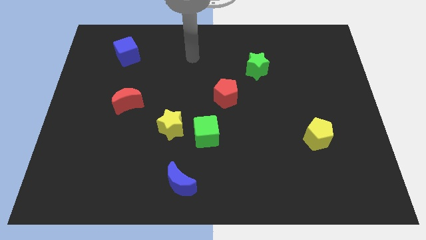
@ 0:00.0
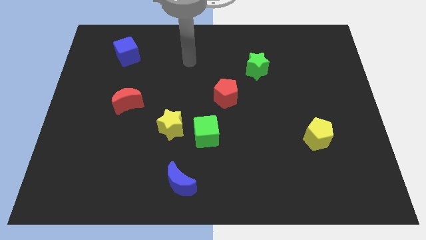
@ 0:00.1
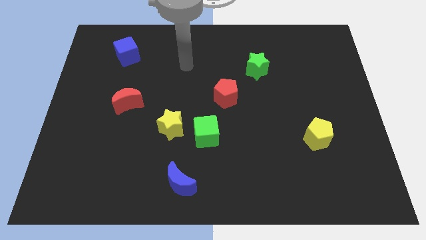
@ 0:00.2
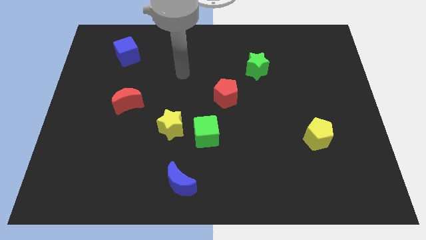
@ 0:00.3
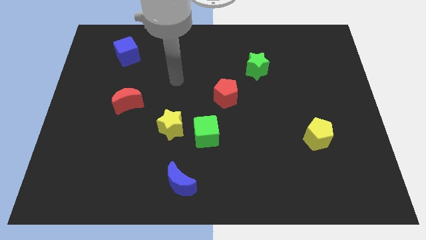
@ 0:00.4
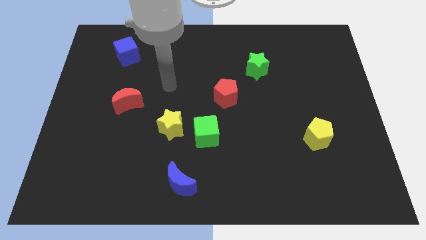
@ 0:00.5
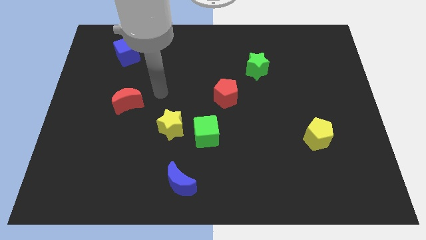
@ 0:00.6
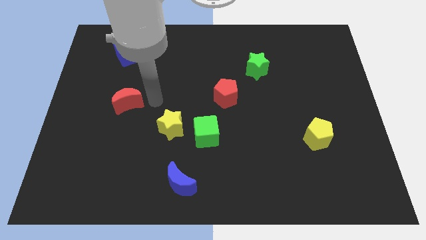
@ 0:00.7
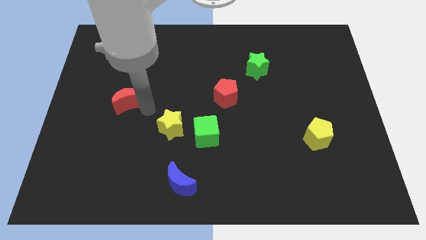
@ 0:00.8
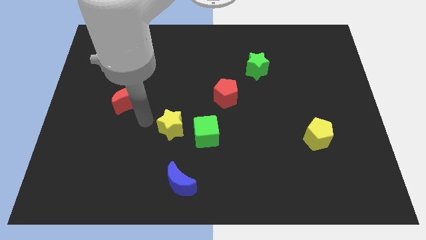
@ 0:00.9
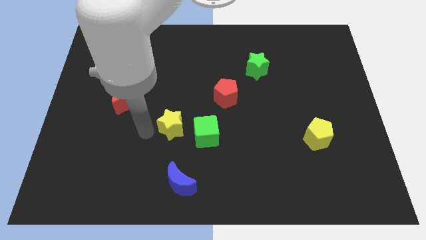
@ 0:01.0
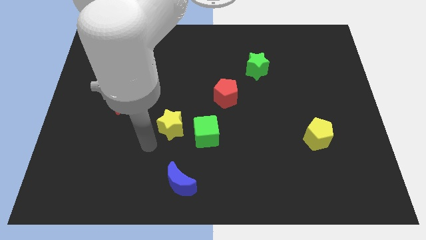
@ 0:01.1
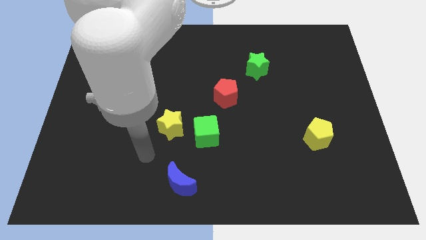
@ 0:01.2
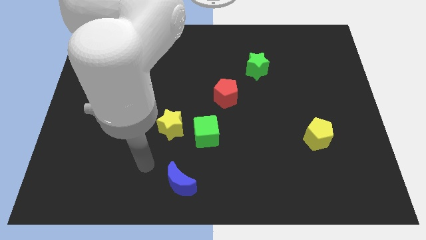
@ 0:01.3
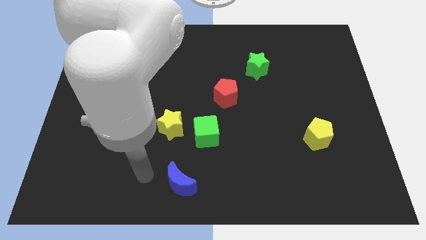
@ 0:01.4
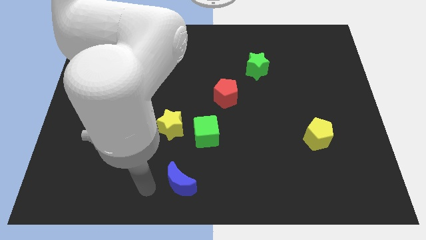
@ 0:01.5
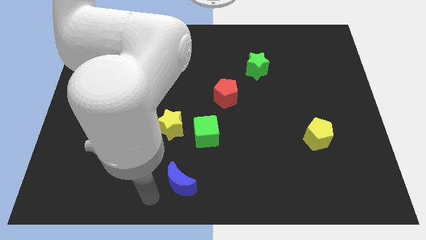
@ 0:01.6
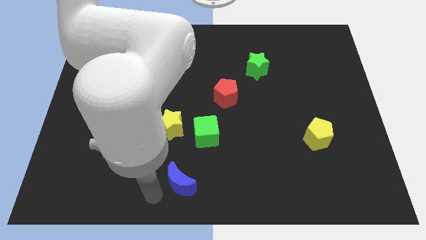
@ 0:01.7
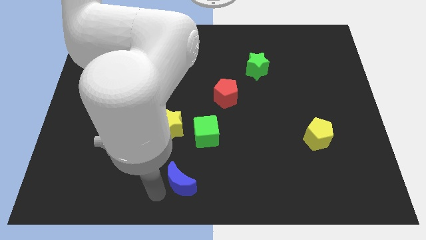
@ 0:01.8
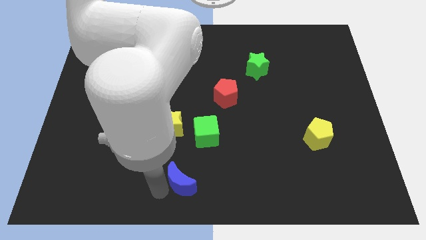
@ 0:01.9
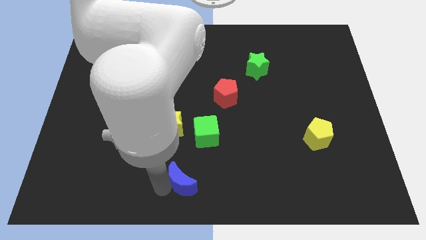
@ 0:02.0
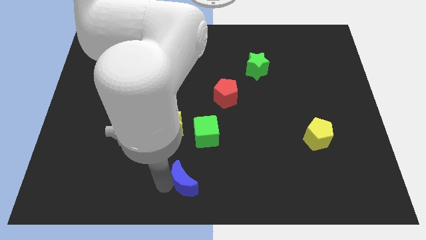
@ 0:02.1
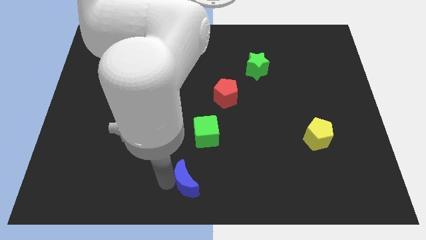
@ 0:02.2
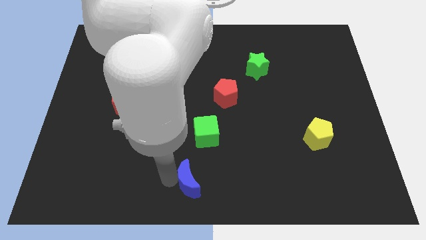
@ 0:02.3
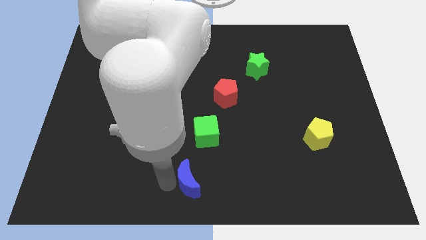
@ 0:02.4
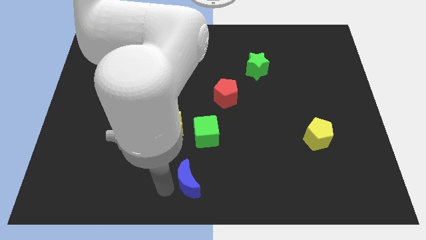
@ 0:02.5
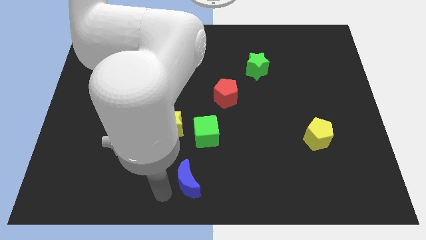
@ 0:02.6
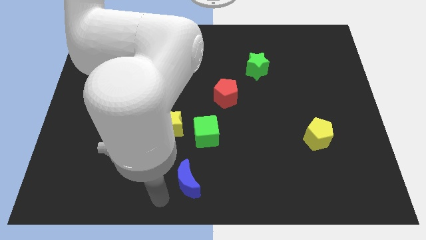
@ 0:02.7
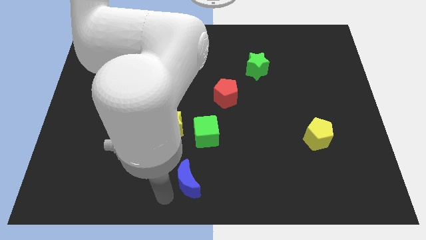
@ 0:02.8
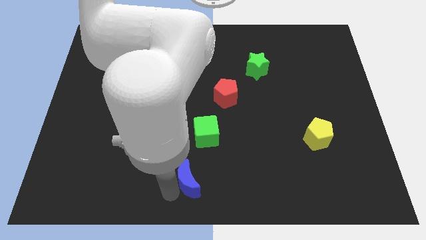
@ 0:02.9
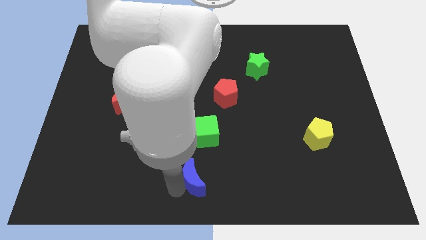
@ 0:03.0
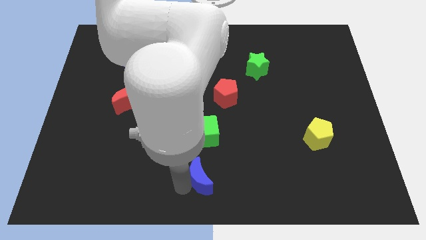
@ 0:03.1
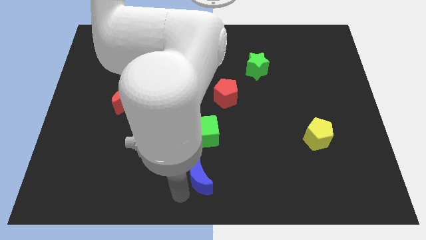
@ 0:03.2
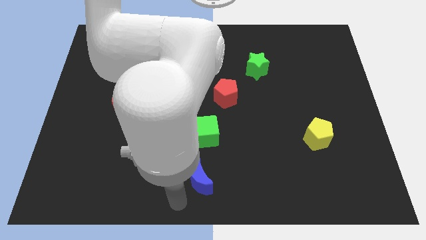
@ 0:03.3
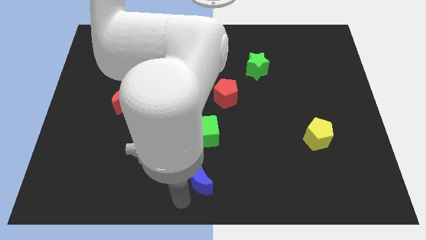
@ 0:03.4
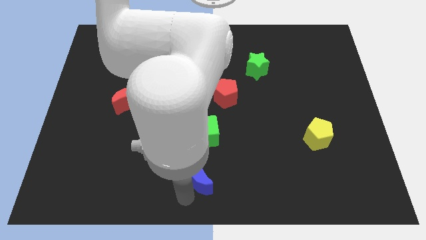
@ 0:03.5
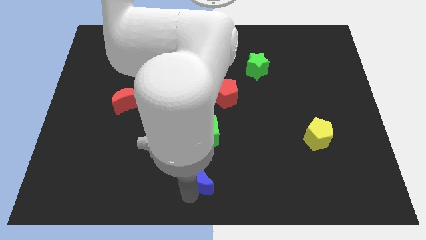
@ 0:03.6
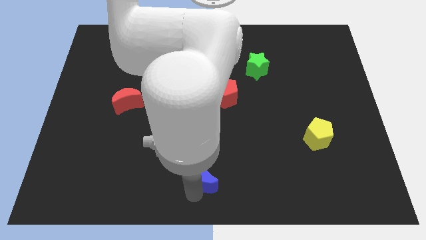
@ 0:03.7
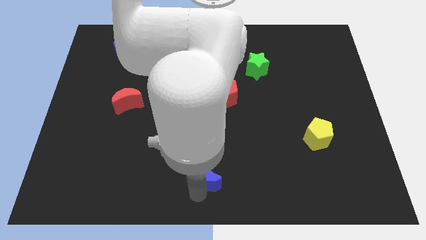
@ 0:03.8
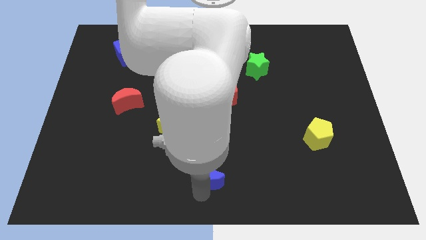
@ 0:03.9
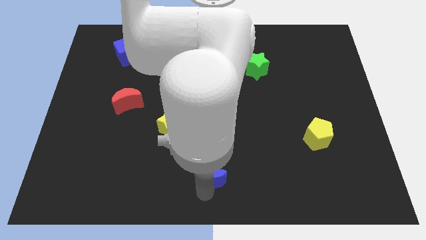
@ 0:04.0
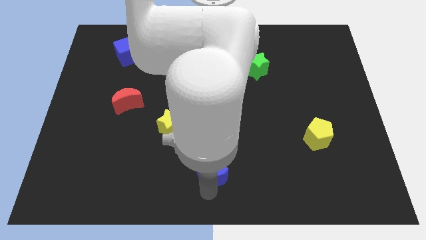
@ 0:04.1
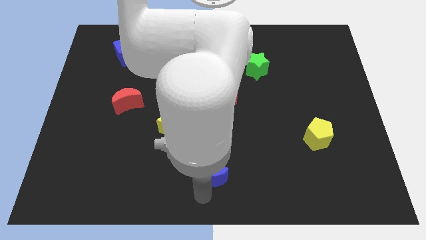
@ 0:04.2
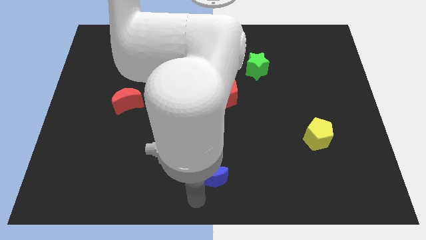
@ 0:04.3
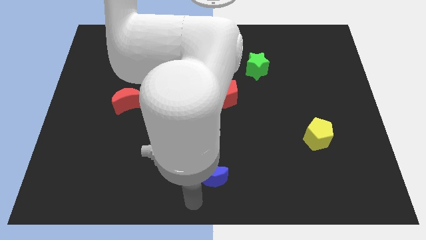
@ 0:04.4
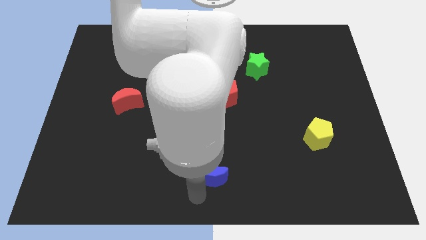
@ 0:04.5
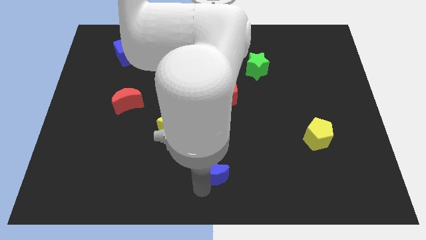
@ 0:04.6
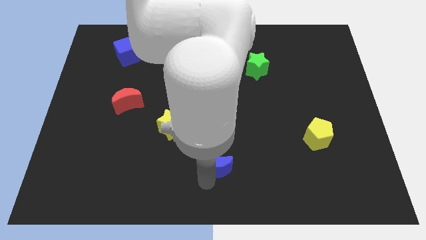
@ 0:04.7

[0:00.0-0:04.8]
push the blue moon slightly upwards and then to the right

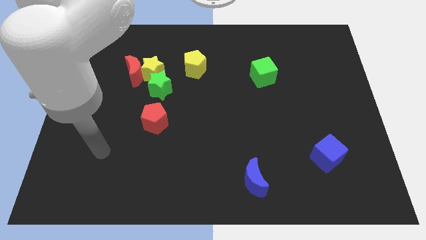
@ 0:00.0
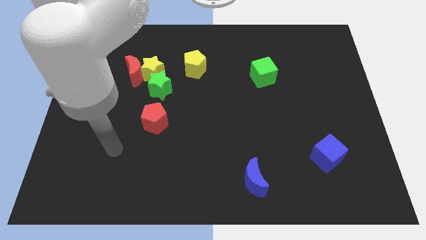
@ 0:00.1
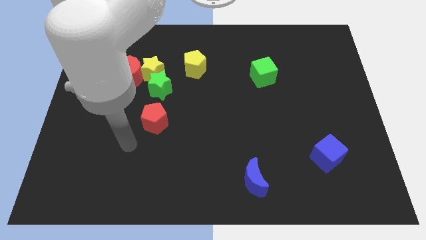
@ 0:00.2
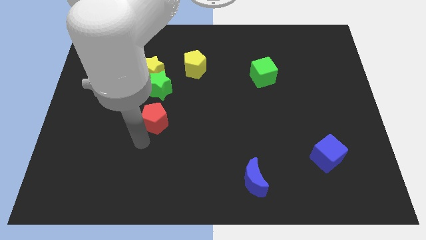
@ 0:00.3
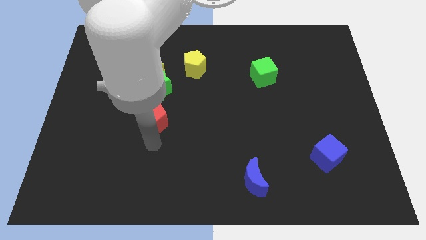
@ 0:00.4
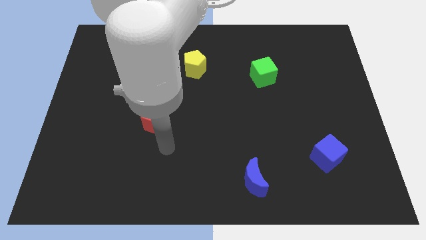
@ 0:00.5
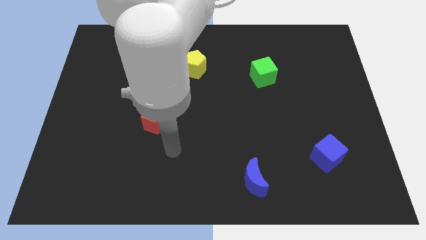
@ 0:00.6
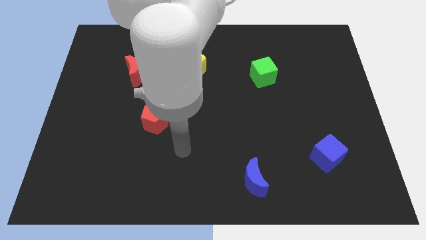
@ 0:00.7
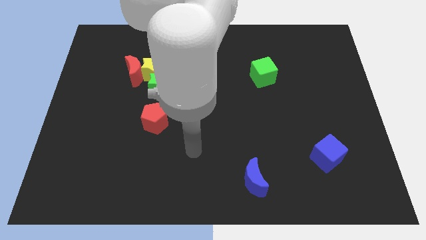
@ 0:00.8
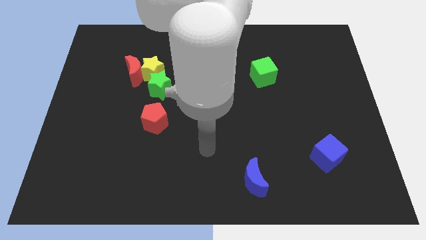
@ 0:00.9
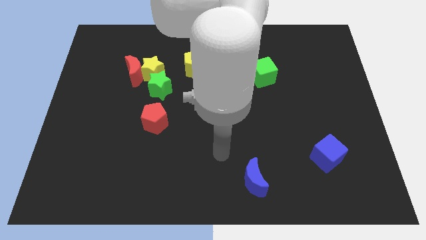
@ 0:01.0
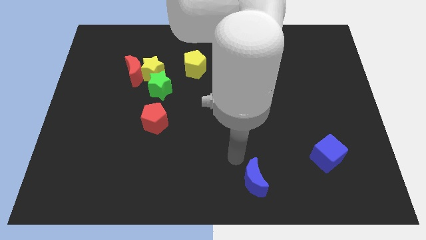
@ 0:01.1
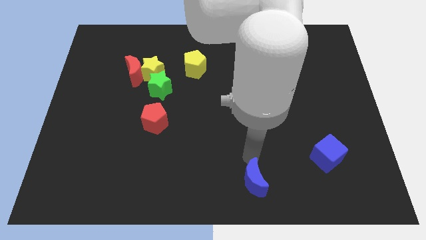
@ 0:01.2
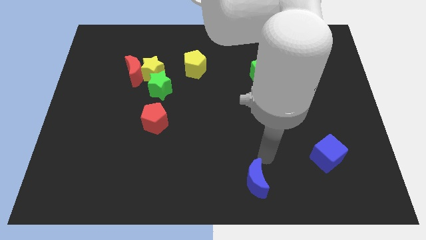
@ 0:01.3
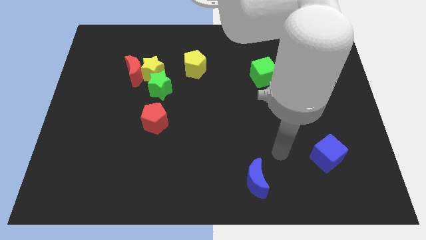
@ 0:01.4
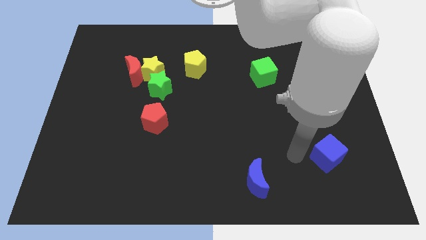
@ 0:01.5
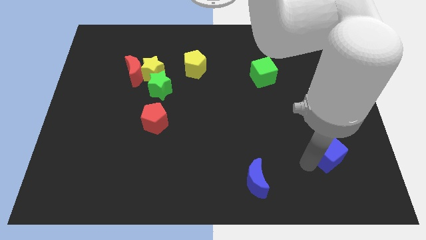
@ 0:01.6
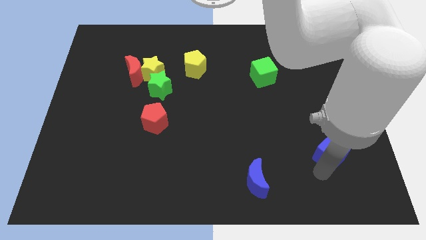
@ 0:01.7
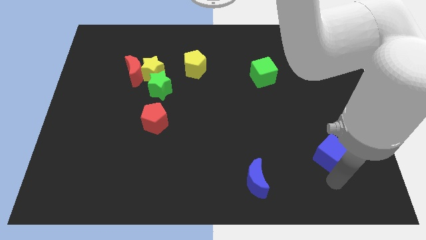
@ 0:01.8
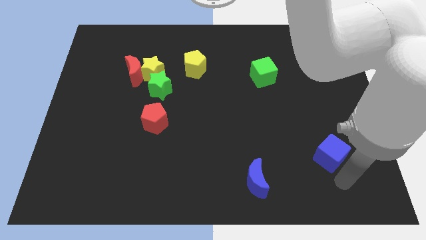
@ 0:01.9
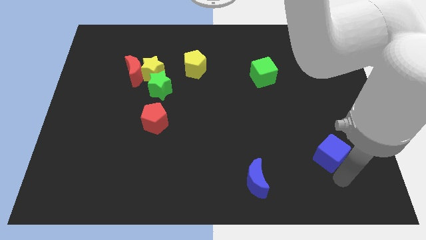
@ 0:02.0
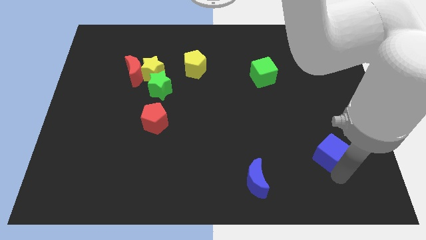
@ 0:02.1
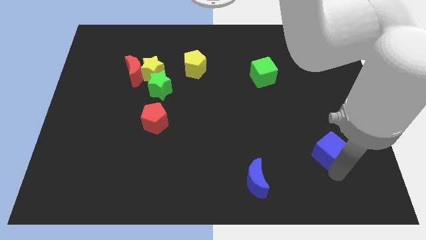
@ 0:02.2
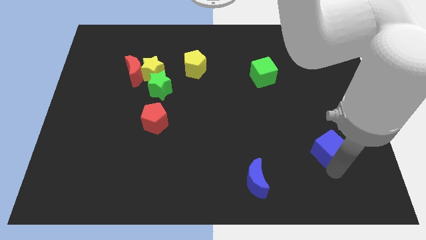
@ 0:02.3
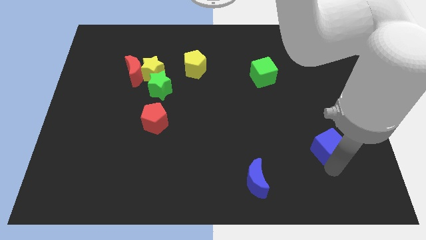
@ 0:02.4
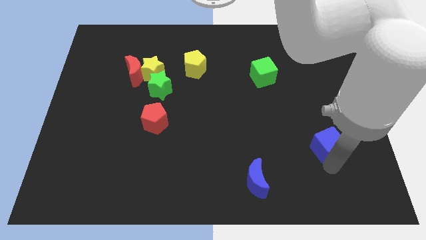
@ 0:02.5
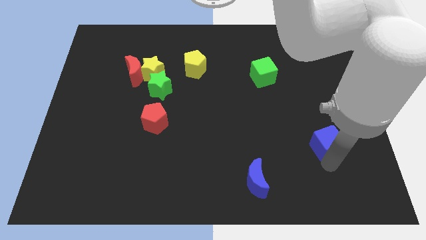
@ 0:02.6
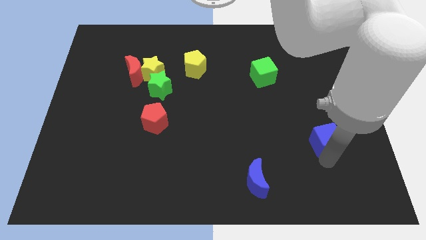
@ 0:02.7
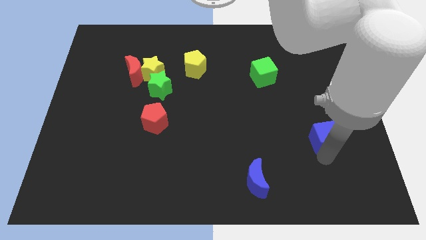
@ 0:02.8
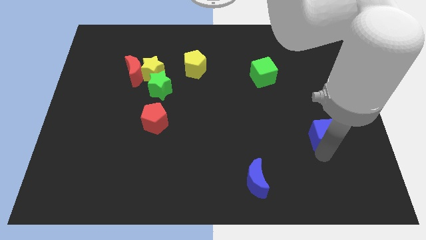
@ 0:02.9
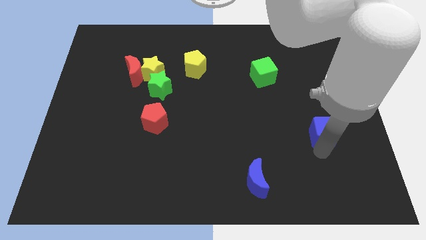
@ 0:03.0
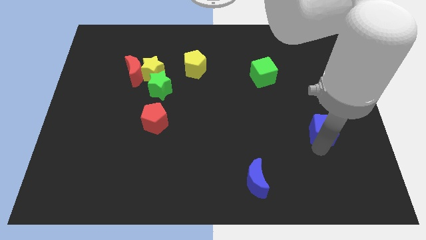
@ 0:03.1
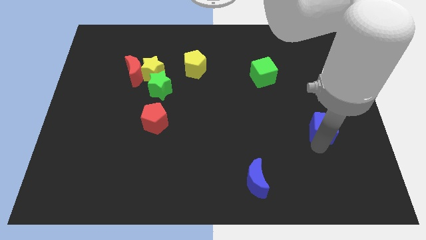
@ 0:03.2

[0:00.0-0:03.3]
slide the blue cube up slightly
